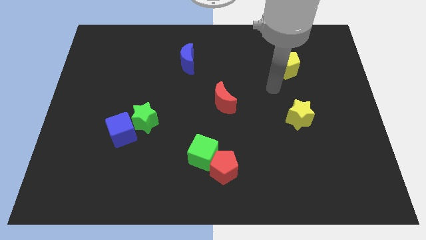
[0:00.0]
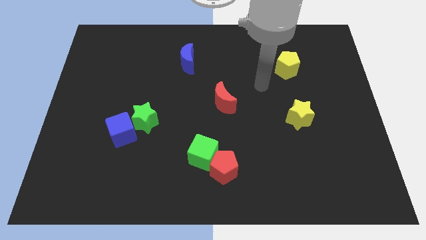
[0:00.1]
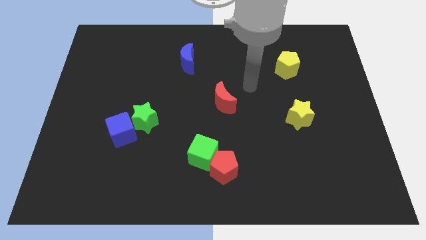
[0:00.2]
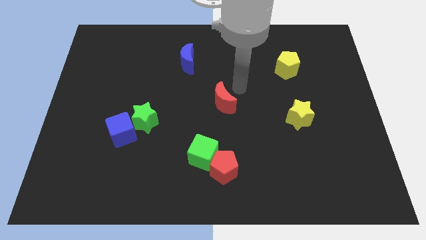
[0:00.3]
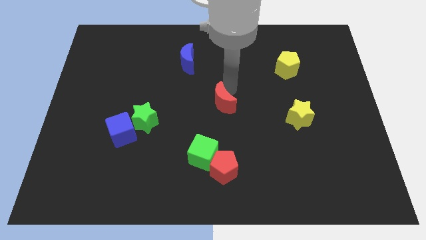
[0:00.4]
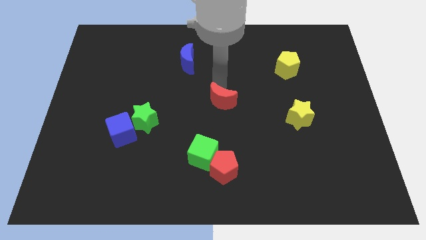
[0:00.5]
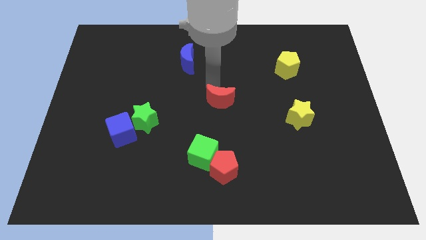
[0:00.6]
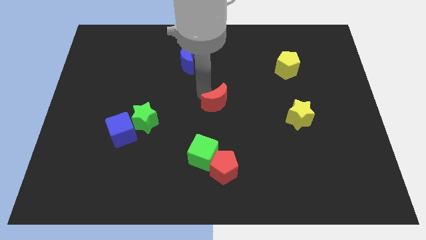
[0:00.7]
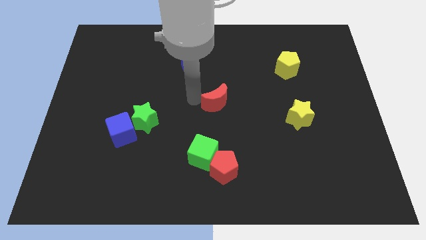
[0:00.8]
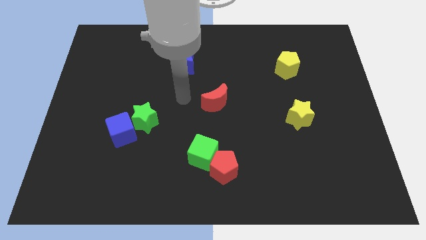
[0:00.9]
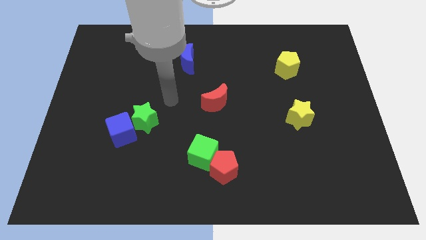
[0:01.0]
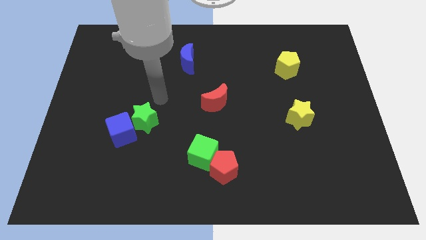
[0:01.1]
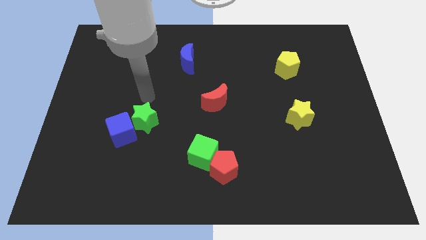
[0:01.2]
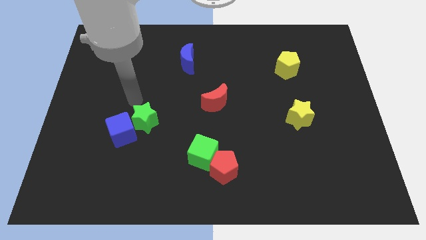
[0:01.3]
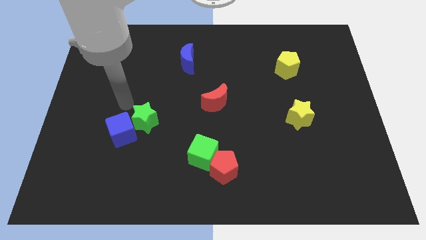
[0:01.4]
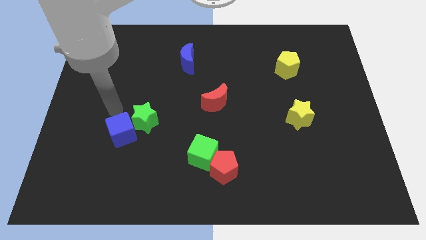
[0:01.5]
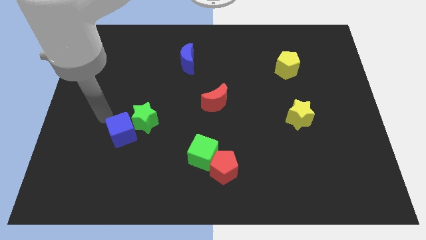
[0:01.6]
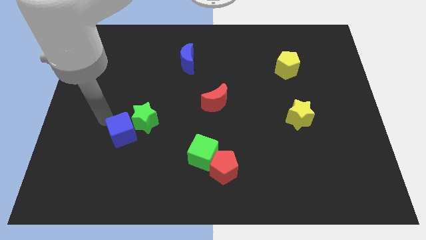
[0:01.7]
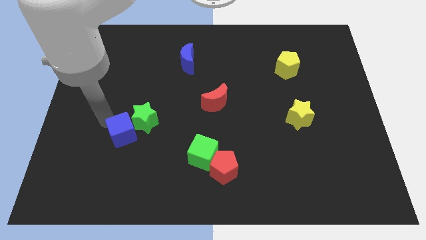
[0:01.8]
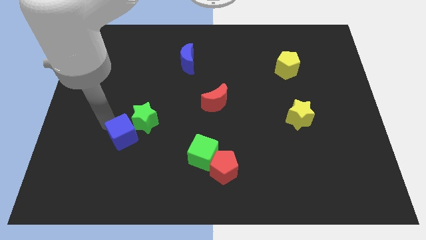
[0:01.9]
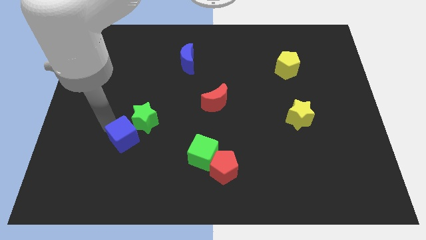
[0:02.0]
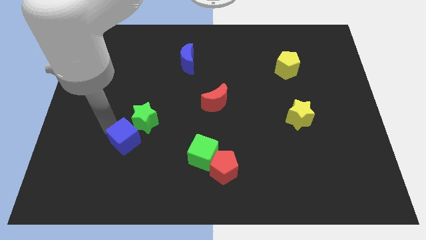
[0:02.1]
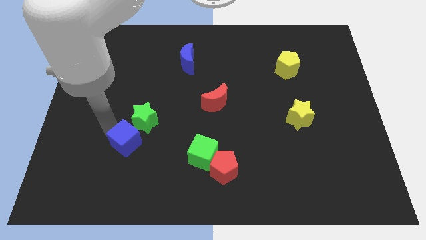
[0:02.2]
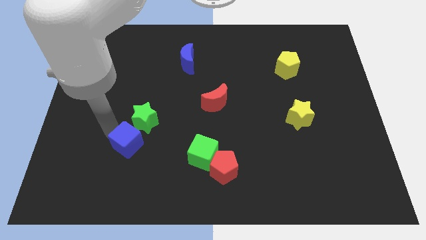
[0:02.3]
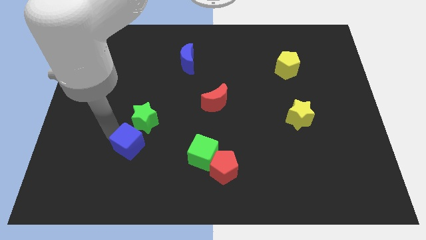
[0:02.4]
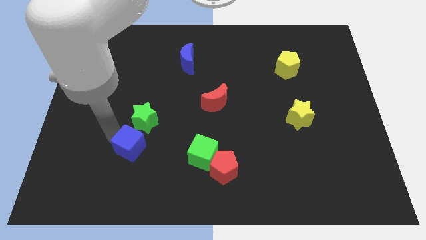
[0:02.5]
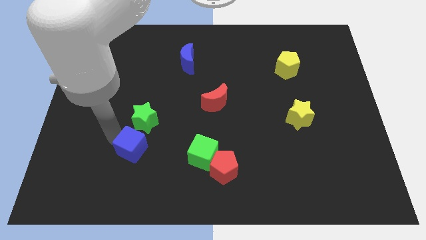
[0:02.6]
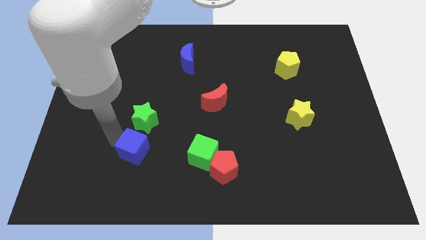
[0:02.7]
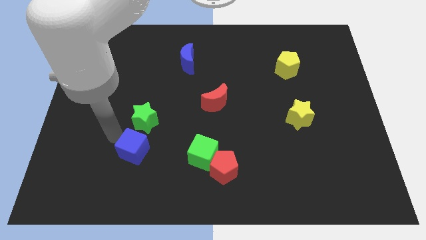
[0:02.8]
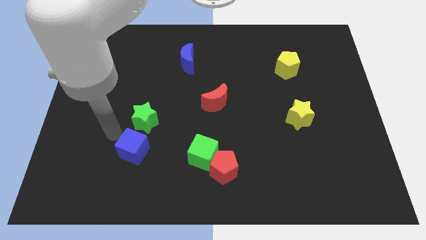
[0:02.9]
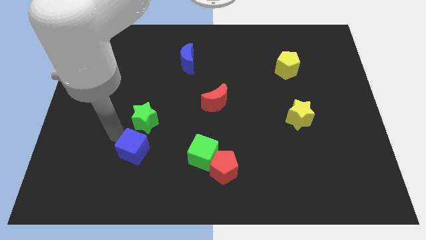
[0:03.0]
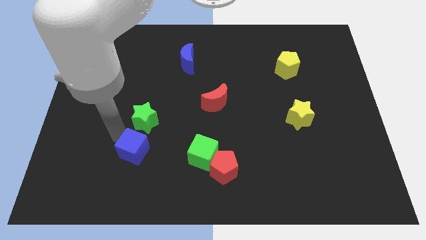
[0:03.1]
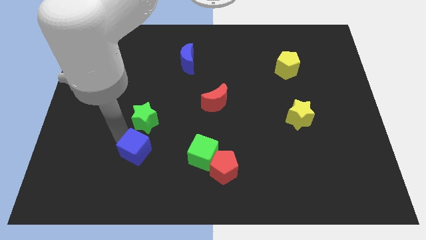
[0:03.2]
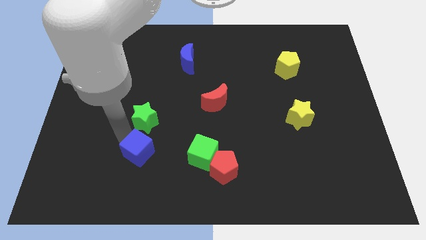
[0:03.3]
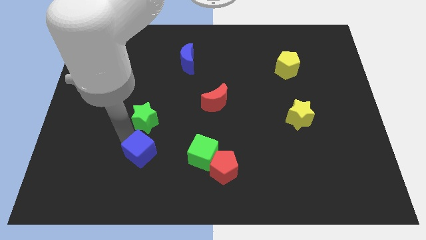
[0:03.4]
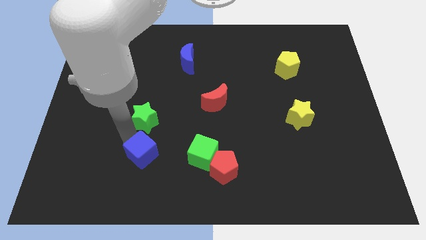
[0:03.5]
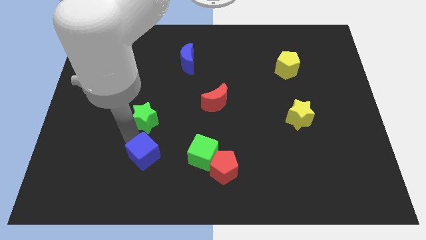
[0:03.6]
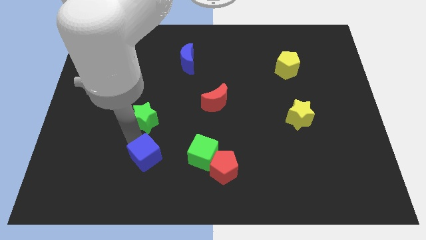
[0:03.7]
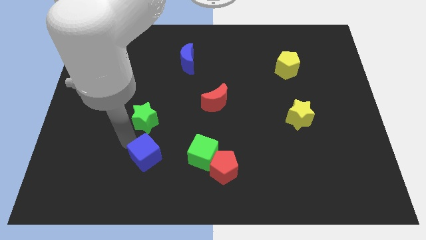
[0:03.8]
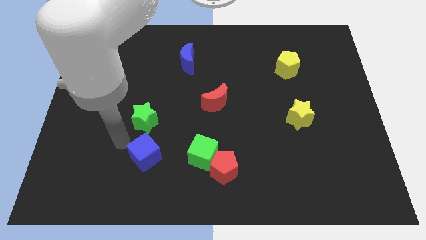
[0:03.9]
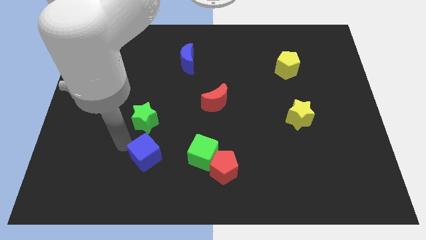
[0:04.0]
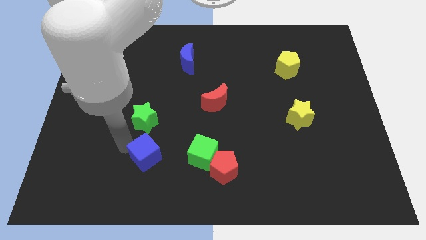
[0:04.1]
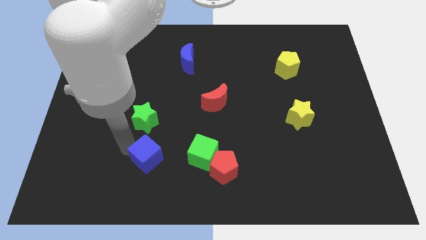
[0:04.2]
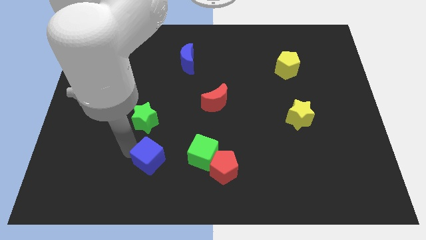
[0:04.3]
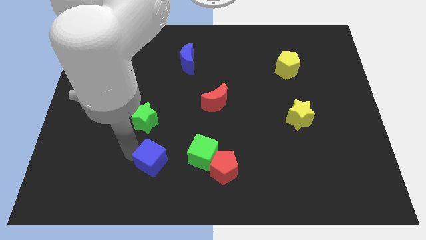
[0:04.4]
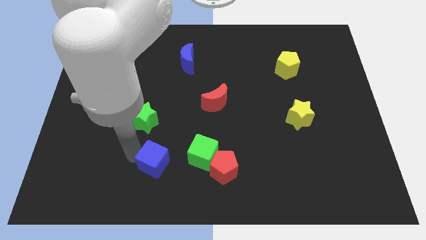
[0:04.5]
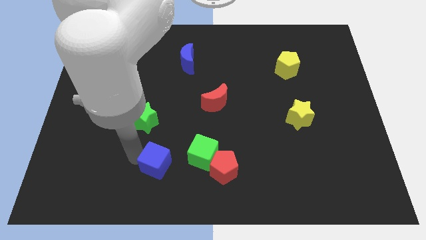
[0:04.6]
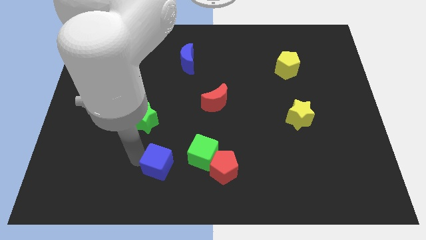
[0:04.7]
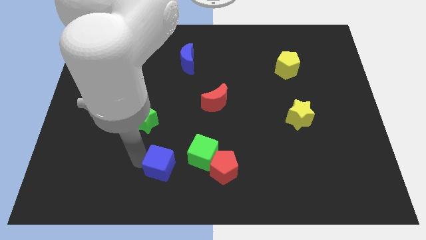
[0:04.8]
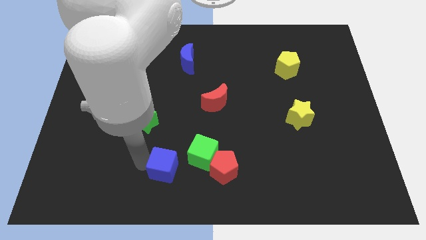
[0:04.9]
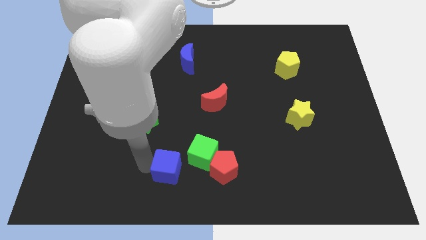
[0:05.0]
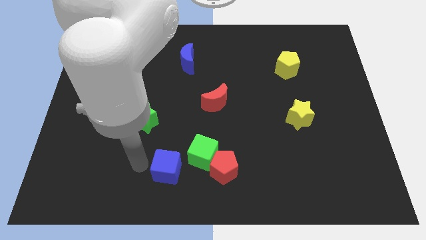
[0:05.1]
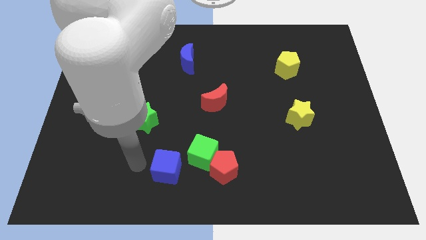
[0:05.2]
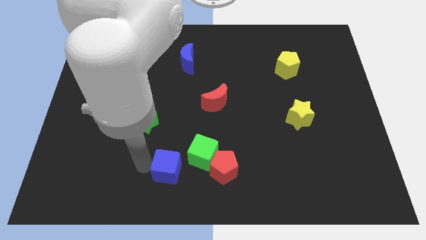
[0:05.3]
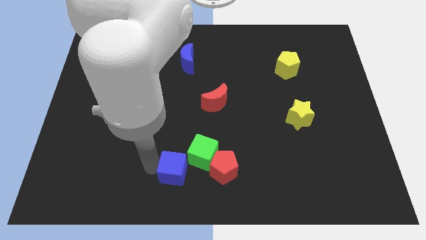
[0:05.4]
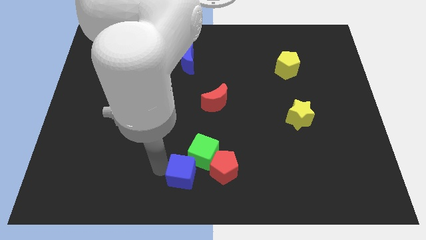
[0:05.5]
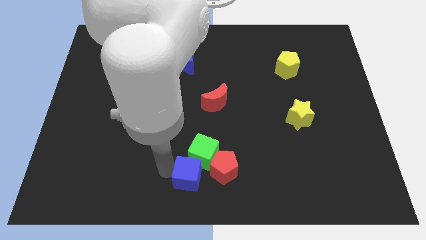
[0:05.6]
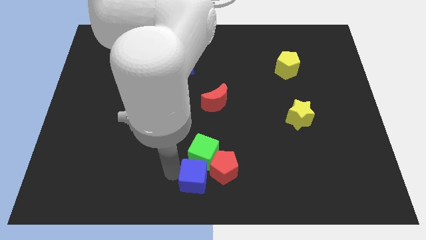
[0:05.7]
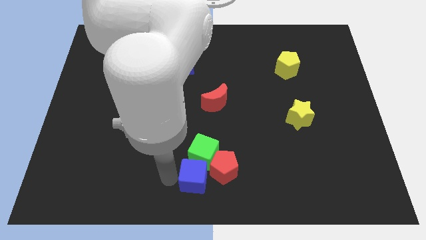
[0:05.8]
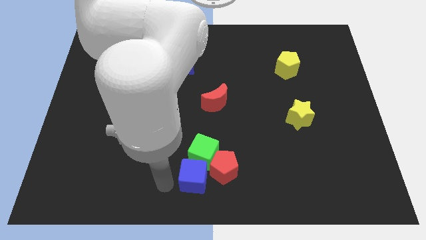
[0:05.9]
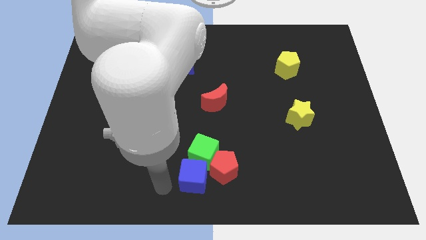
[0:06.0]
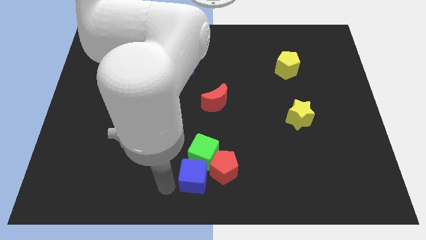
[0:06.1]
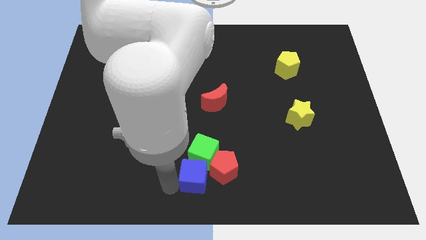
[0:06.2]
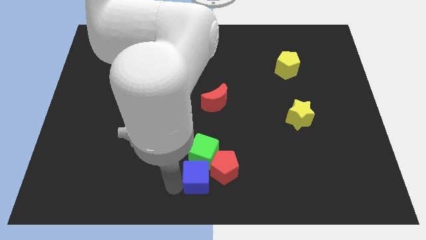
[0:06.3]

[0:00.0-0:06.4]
slide the blue cube close to the red pentagon

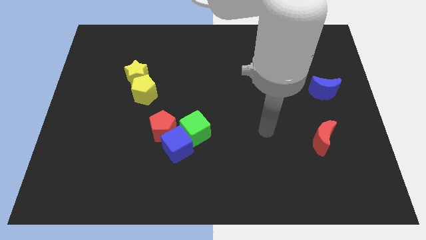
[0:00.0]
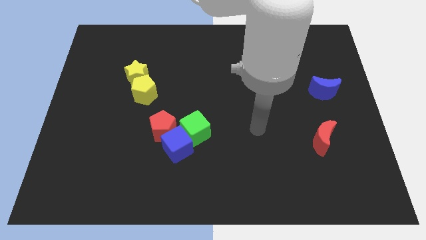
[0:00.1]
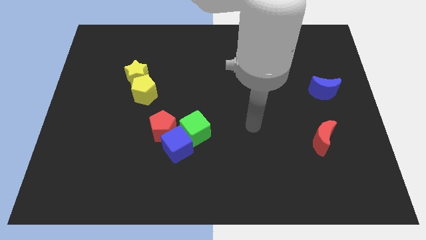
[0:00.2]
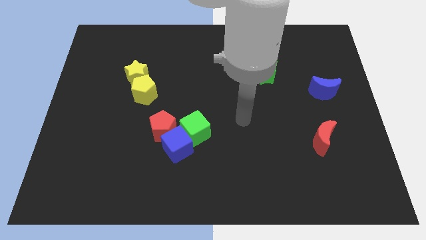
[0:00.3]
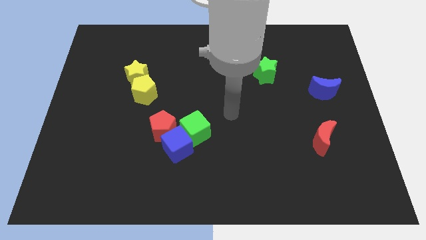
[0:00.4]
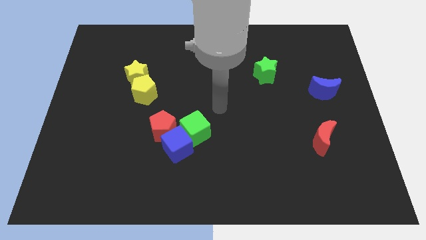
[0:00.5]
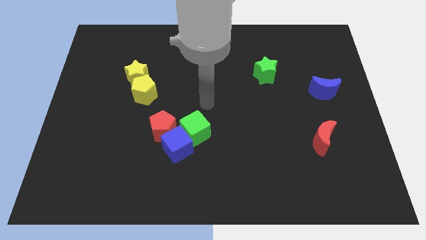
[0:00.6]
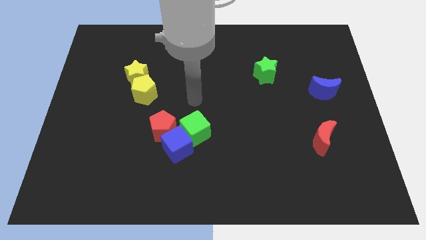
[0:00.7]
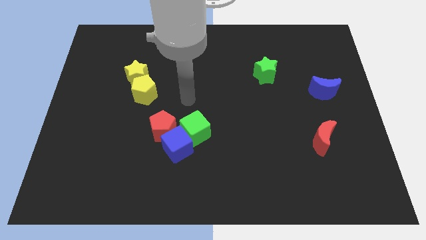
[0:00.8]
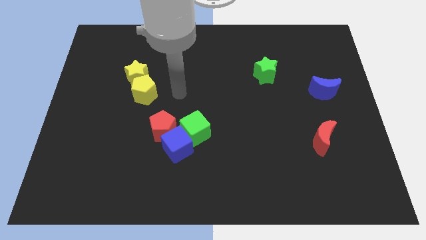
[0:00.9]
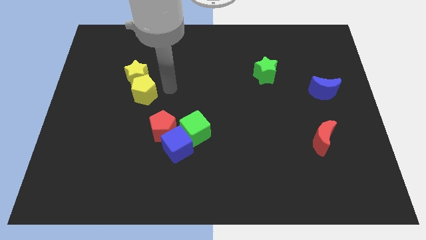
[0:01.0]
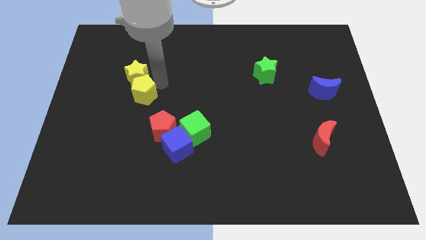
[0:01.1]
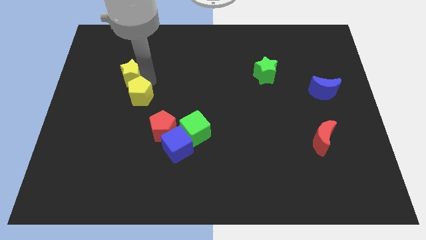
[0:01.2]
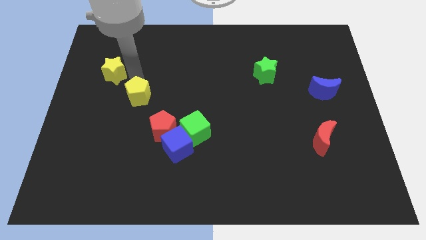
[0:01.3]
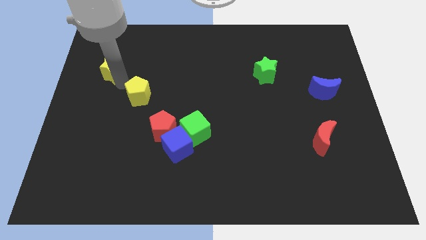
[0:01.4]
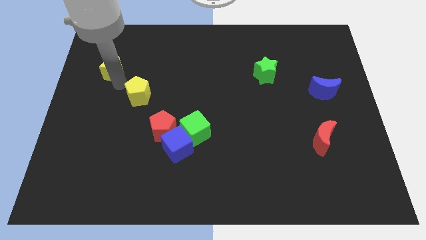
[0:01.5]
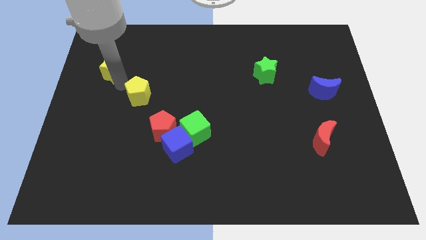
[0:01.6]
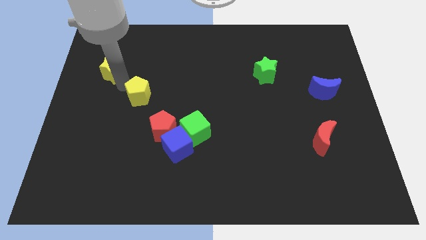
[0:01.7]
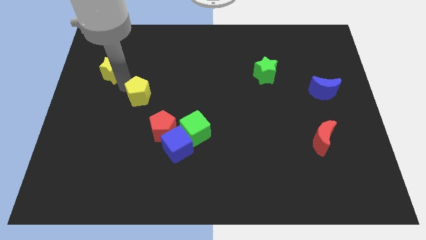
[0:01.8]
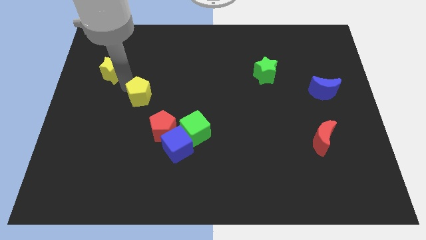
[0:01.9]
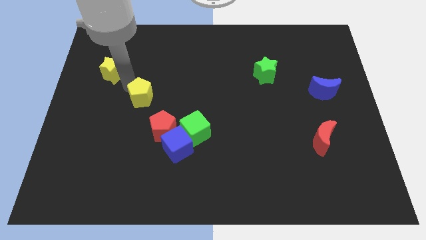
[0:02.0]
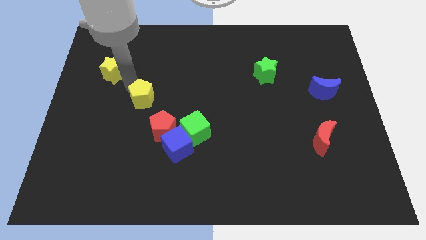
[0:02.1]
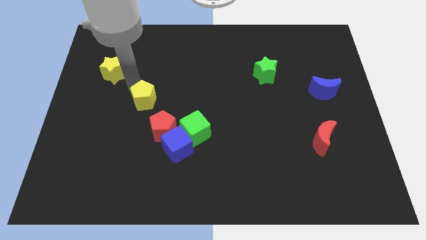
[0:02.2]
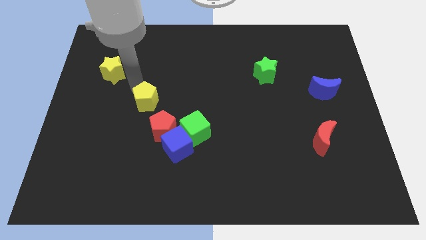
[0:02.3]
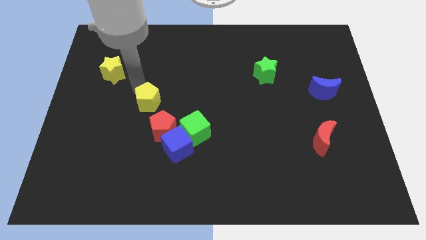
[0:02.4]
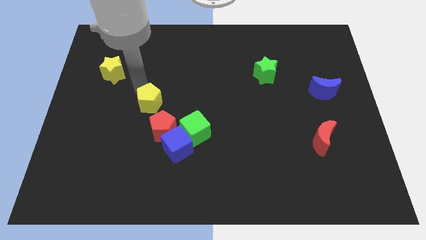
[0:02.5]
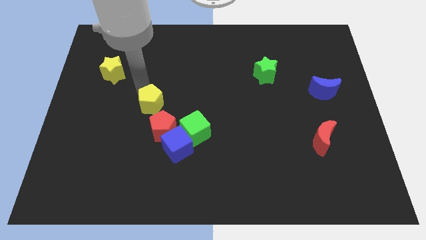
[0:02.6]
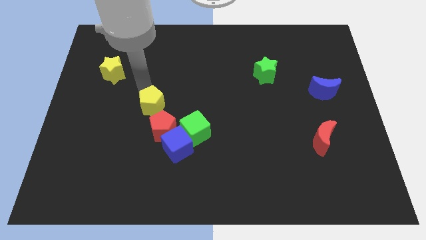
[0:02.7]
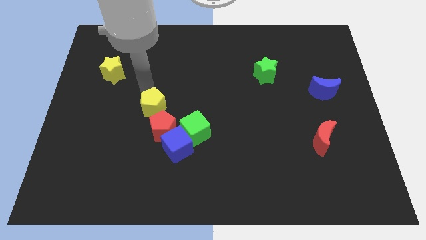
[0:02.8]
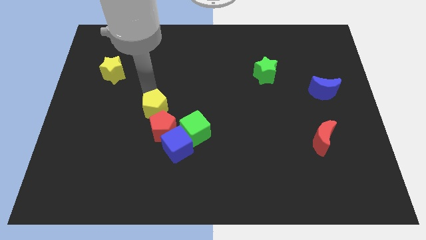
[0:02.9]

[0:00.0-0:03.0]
put the yellow pentagon towards the red pentagon
